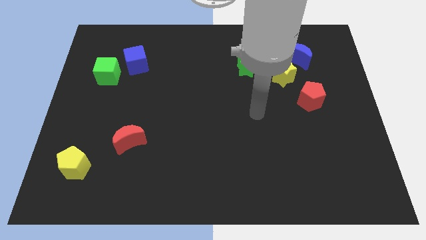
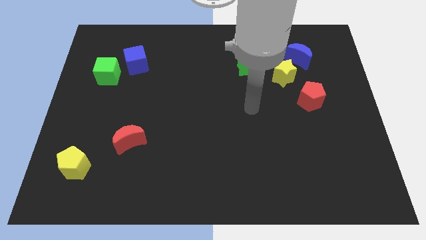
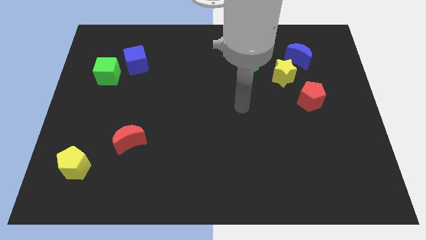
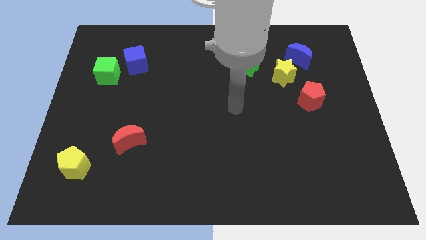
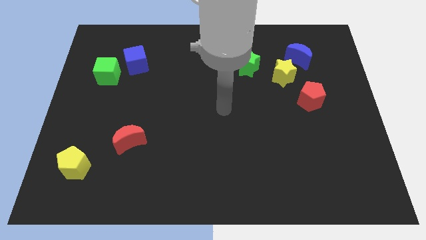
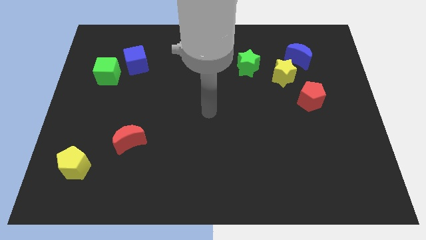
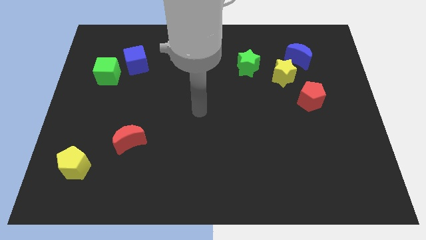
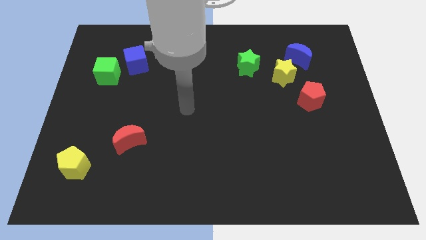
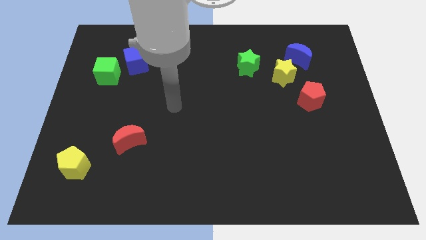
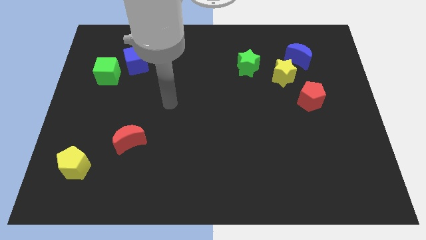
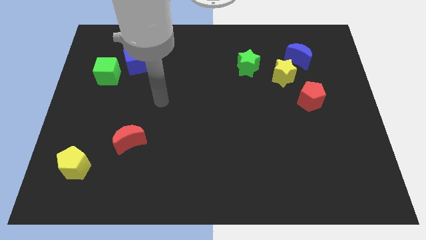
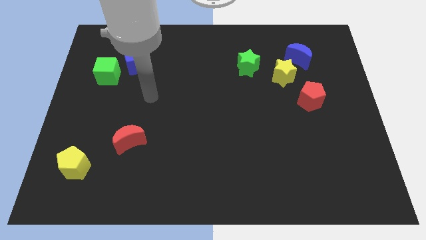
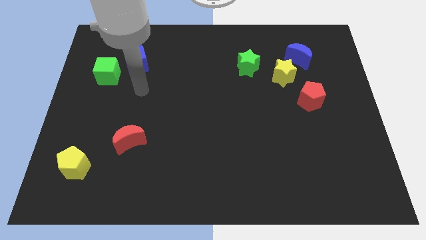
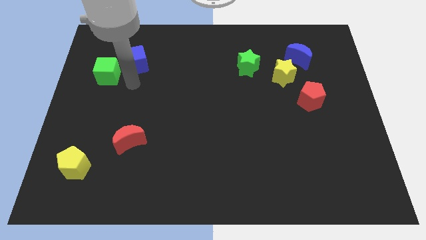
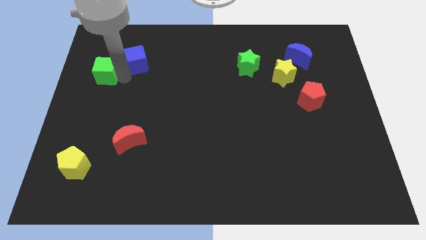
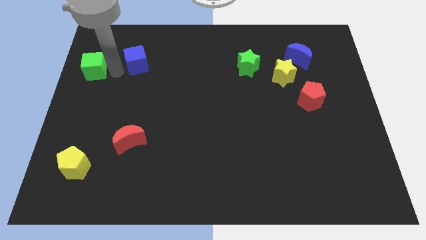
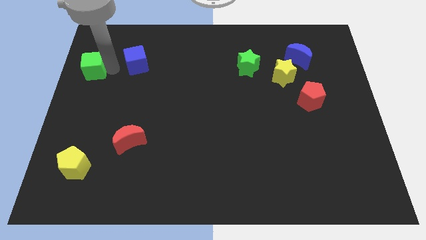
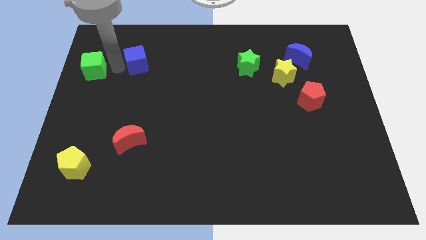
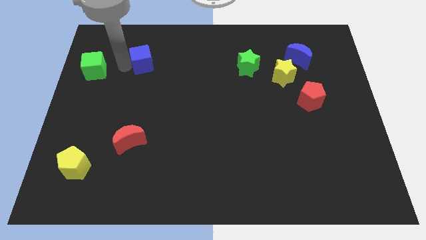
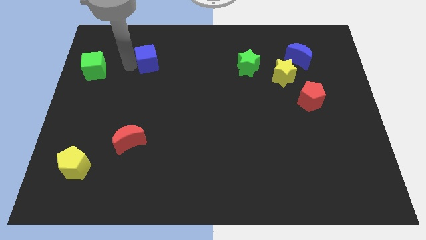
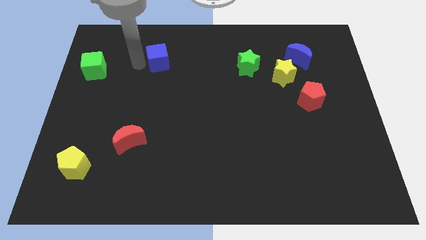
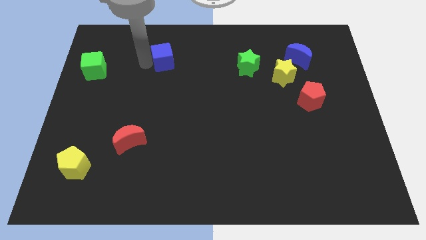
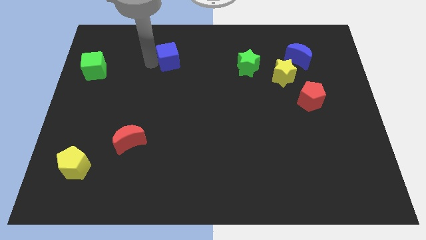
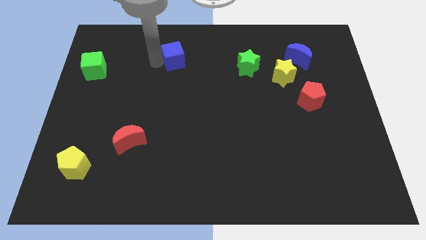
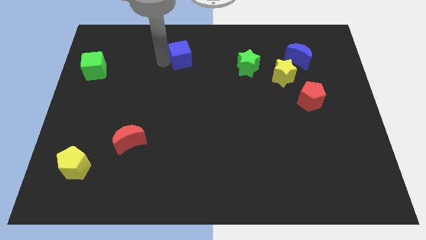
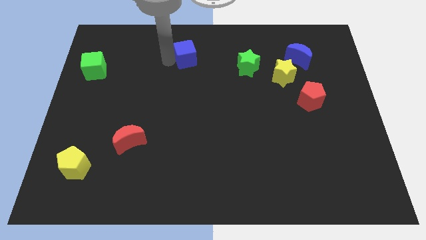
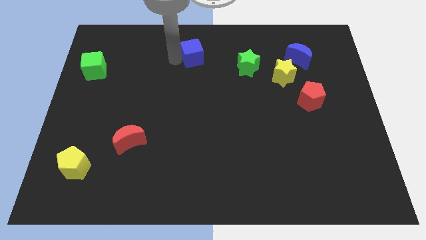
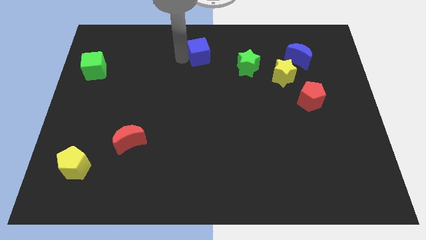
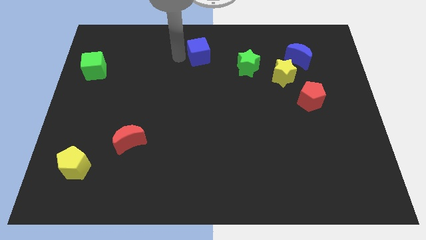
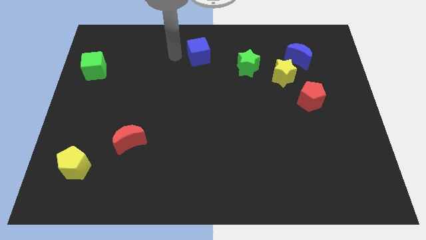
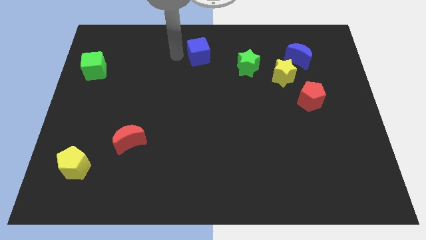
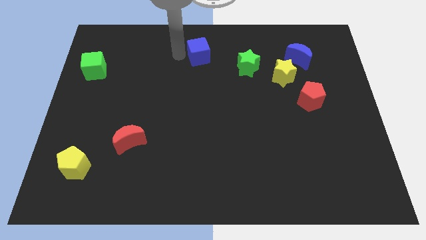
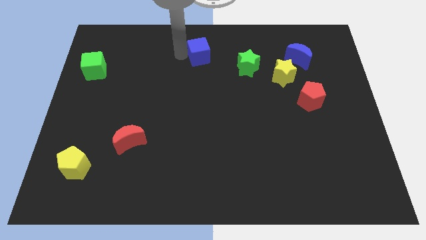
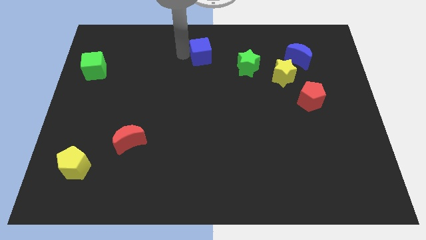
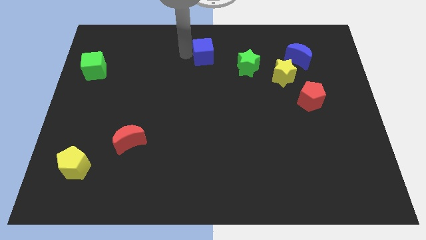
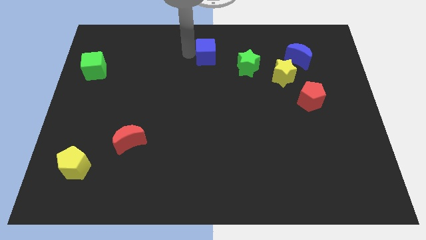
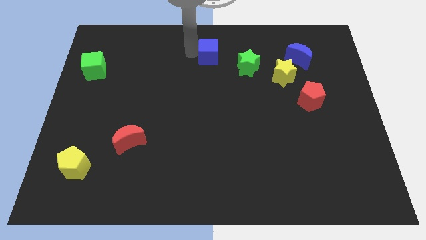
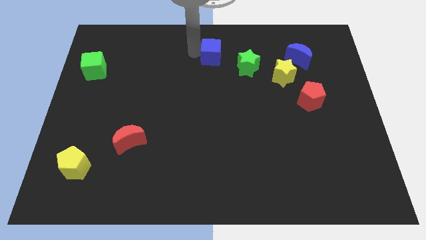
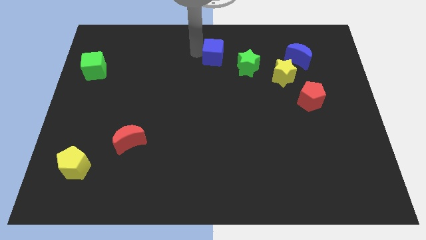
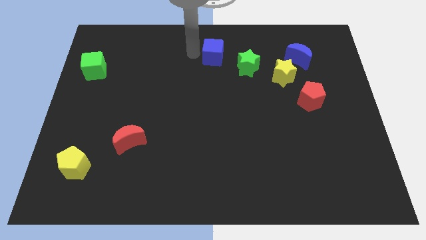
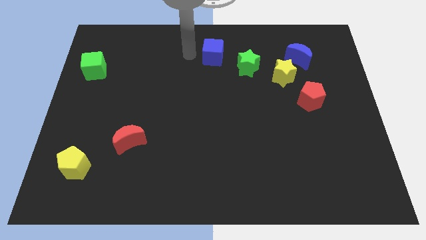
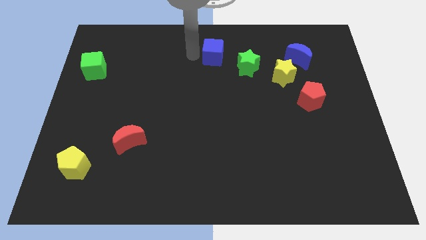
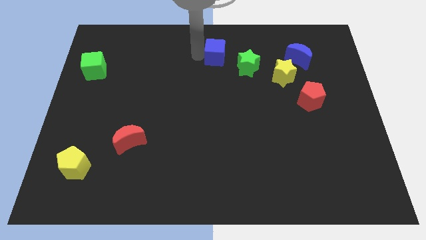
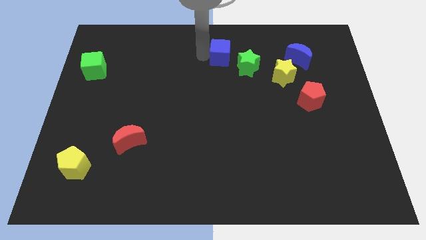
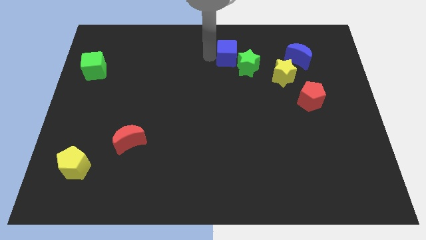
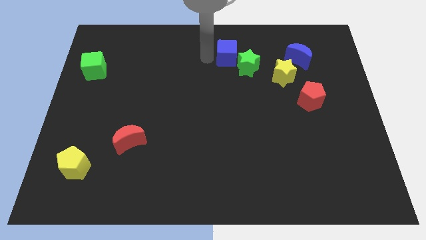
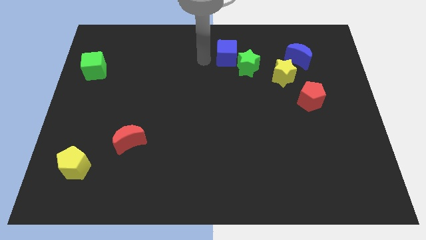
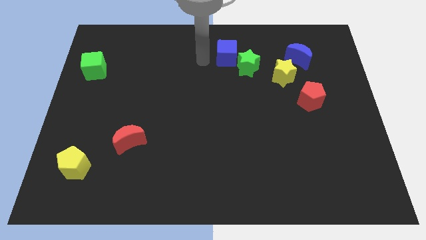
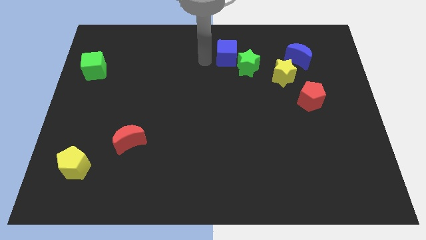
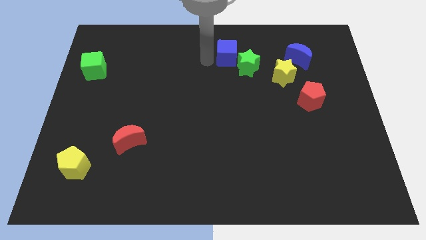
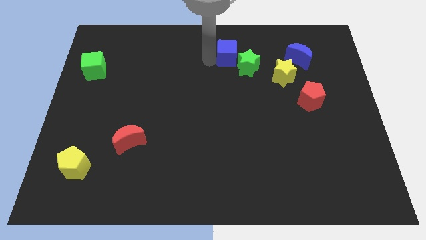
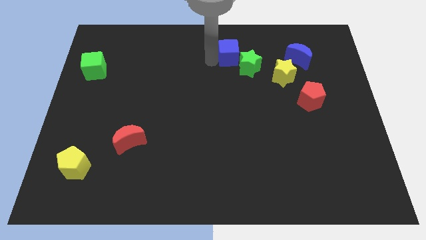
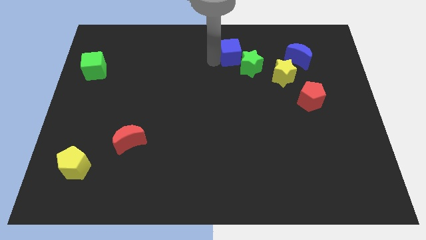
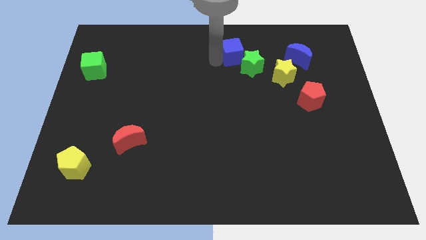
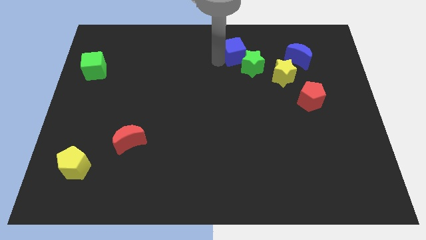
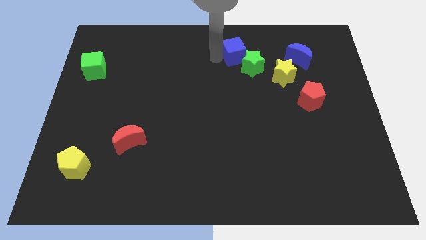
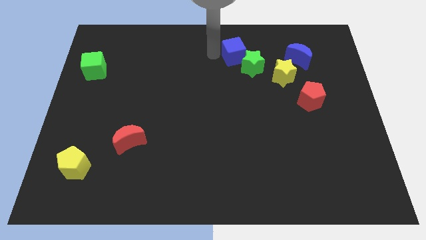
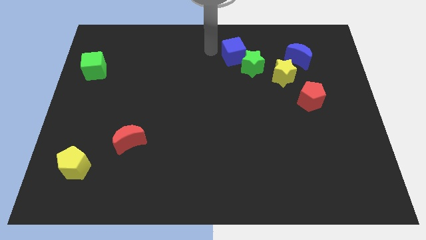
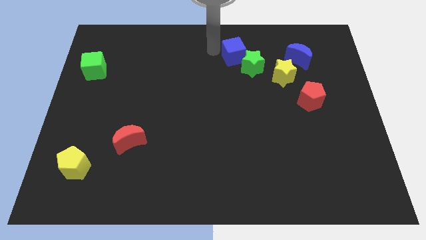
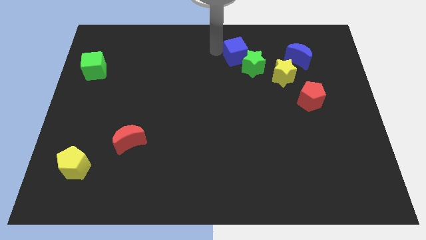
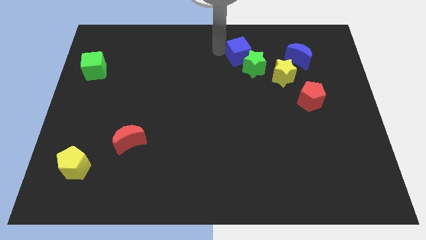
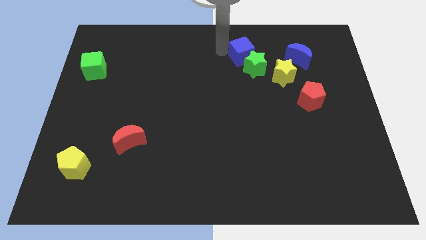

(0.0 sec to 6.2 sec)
push the blue cube to the top left side of the yellow star
